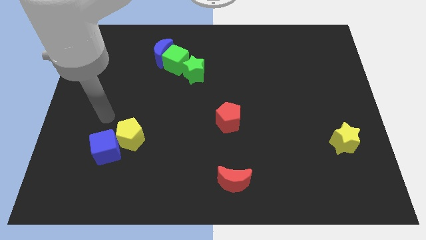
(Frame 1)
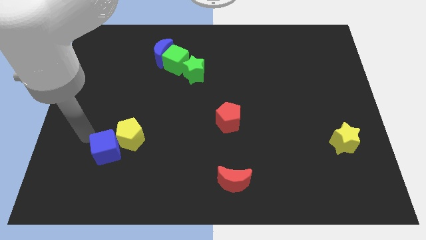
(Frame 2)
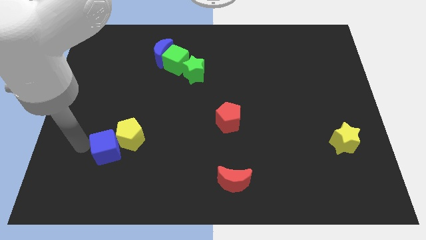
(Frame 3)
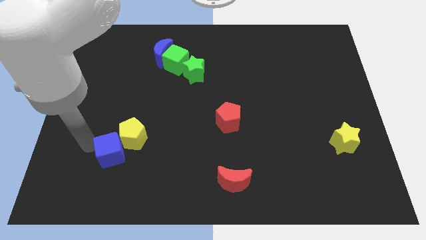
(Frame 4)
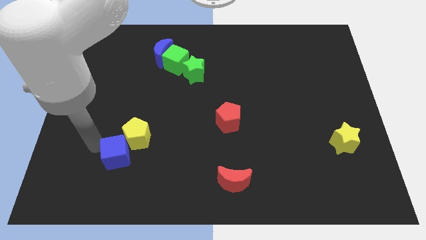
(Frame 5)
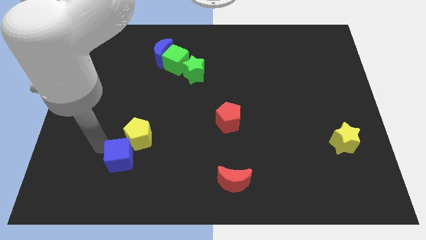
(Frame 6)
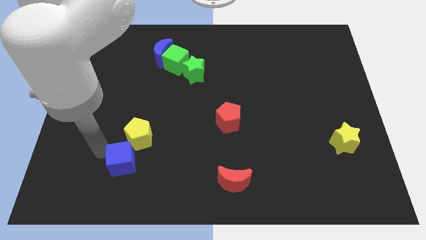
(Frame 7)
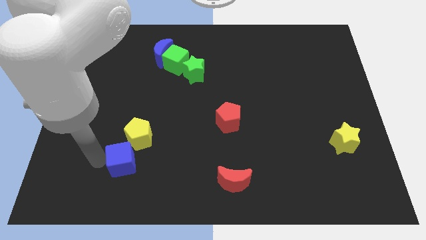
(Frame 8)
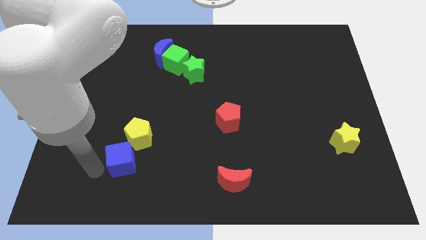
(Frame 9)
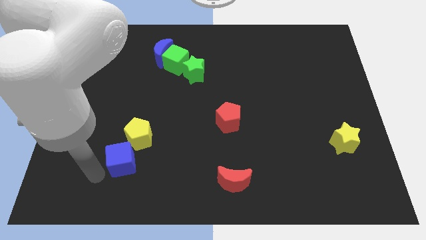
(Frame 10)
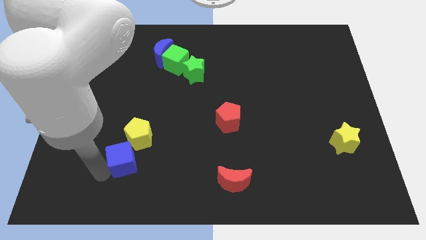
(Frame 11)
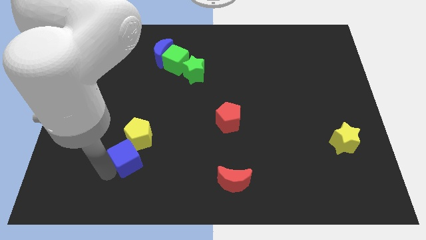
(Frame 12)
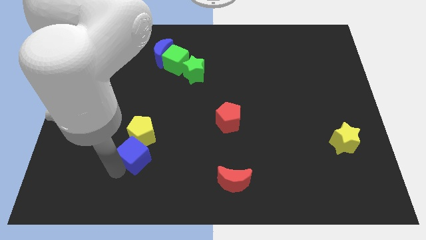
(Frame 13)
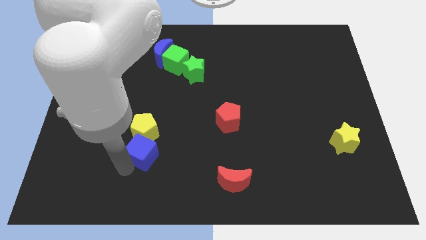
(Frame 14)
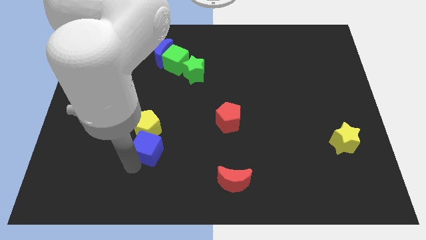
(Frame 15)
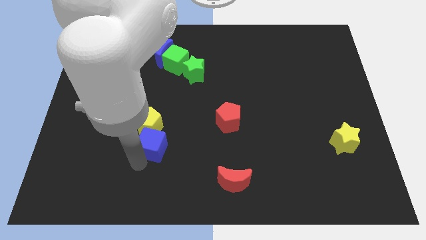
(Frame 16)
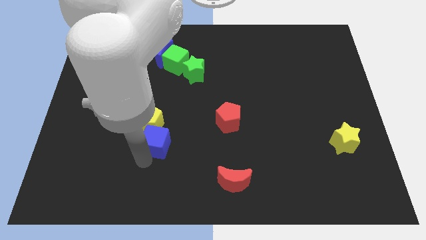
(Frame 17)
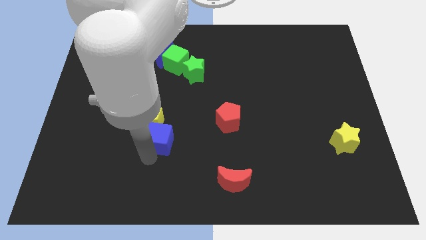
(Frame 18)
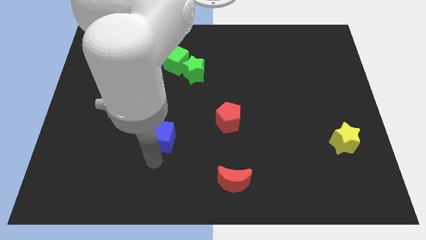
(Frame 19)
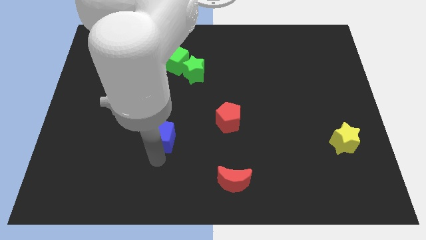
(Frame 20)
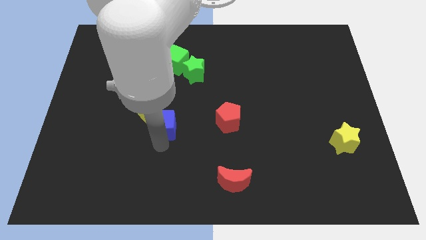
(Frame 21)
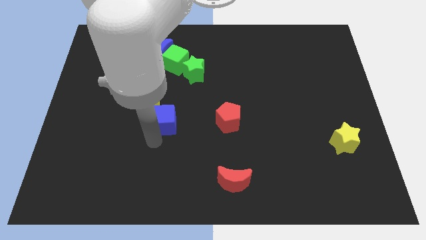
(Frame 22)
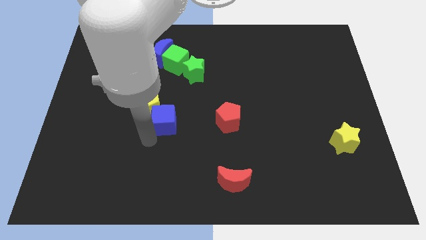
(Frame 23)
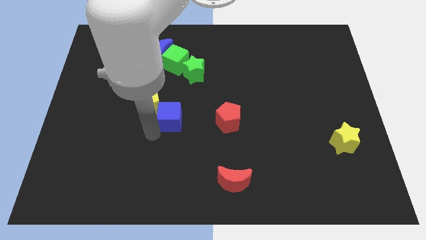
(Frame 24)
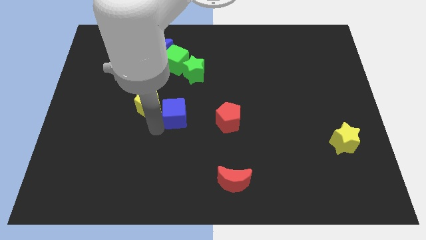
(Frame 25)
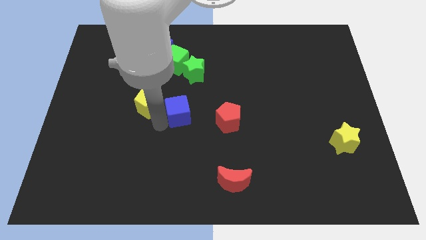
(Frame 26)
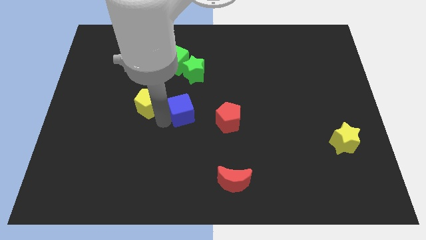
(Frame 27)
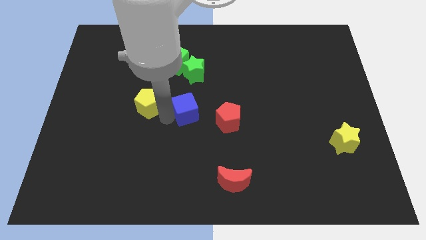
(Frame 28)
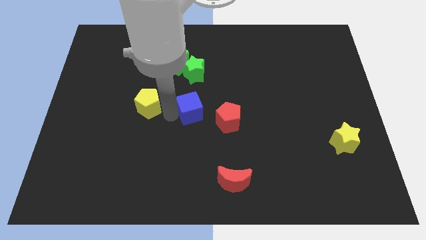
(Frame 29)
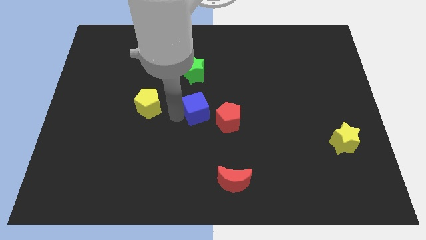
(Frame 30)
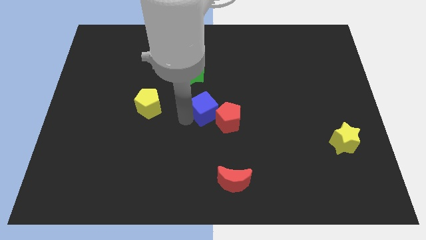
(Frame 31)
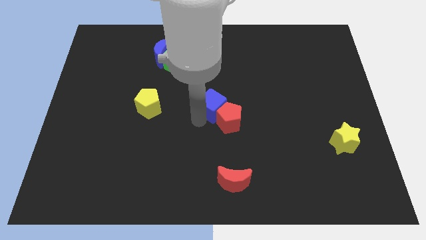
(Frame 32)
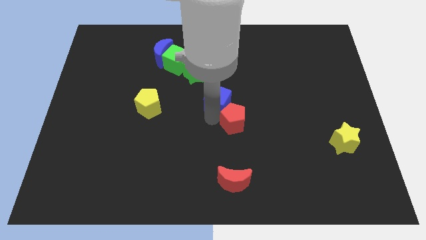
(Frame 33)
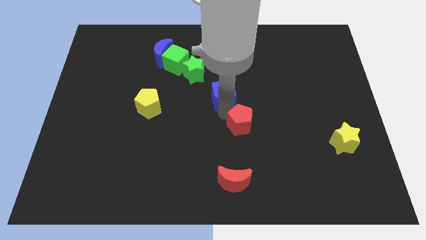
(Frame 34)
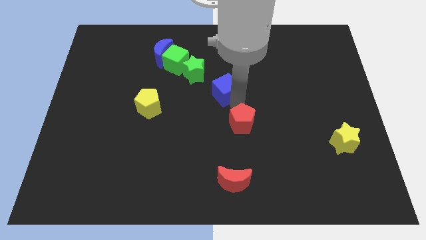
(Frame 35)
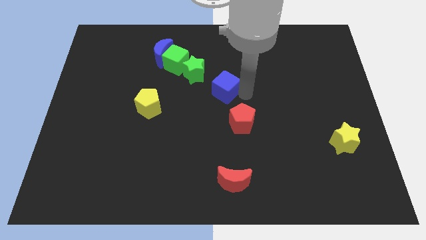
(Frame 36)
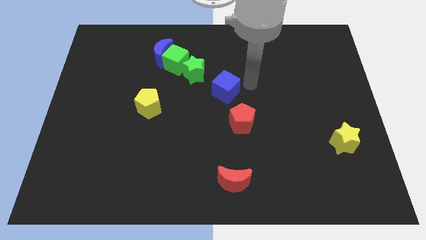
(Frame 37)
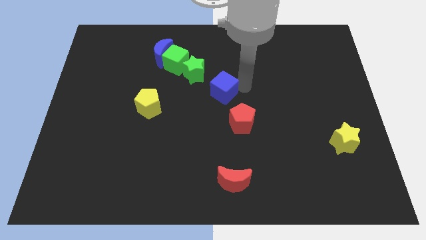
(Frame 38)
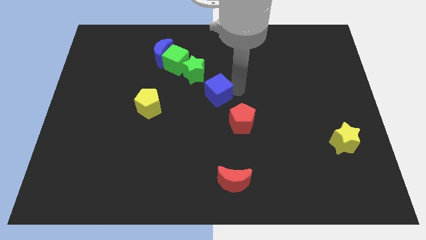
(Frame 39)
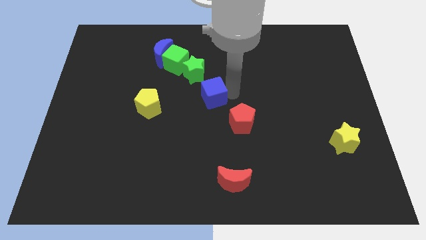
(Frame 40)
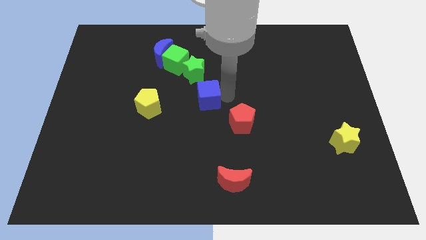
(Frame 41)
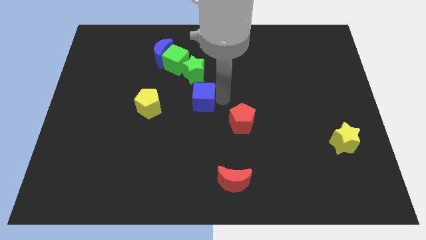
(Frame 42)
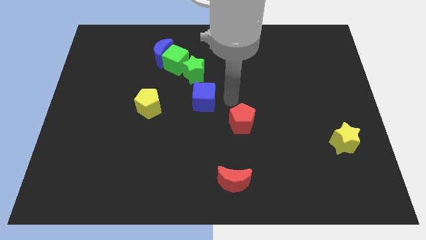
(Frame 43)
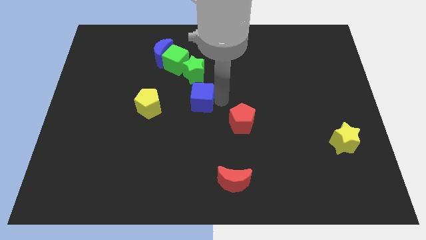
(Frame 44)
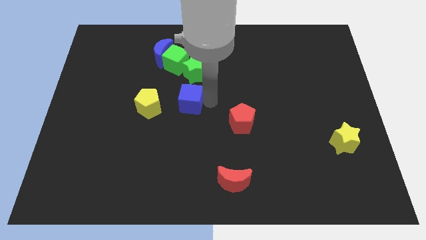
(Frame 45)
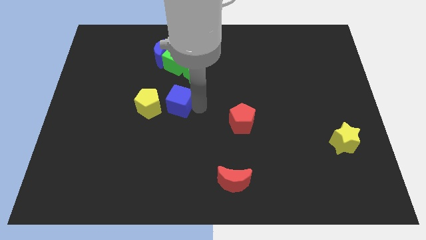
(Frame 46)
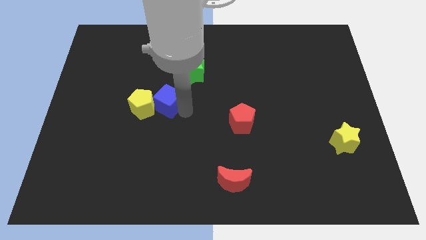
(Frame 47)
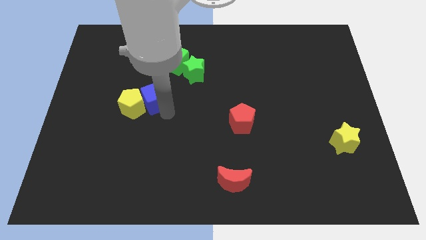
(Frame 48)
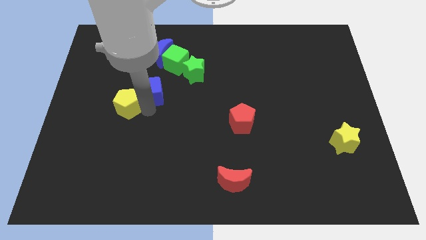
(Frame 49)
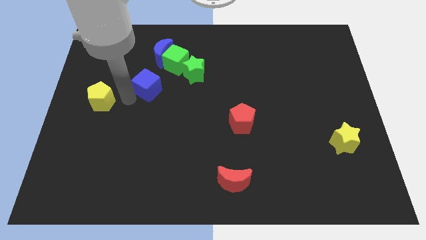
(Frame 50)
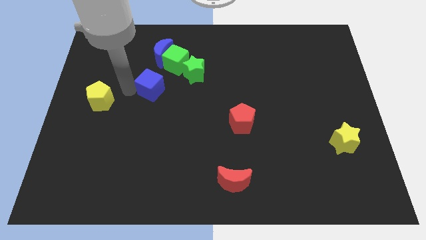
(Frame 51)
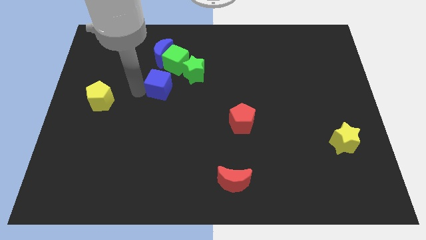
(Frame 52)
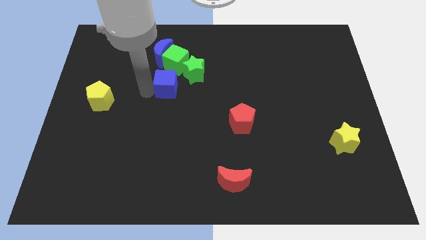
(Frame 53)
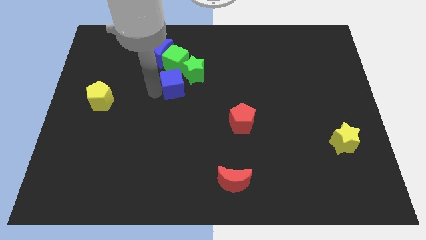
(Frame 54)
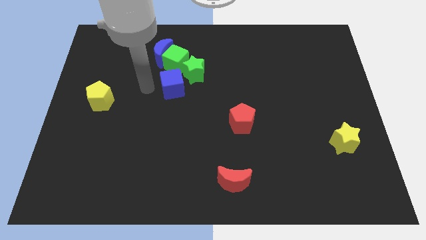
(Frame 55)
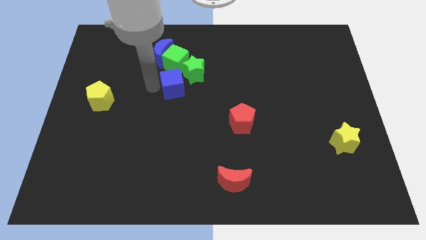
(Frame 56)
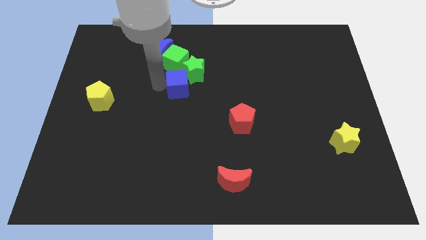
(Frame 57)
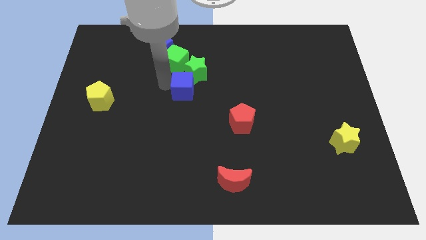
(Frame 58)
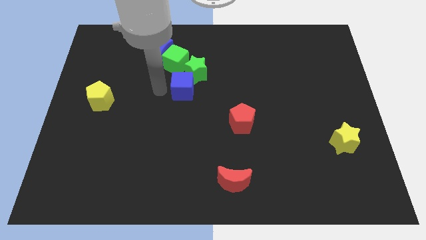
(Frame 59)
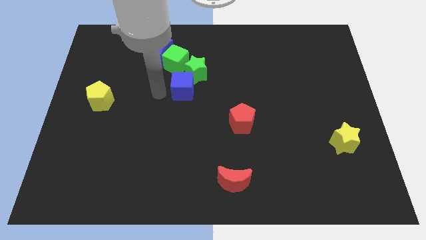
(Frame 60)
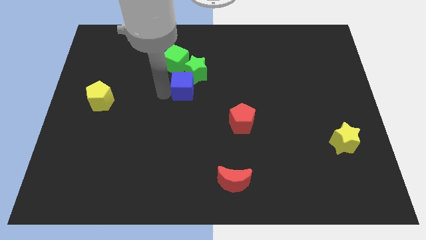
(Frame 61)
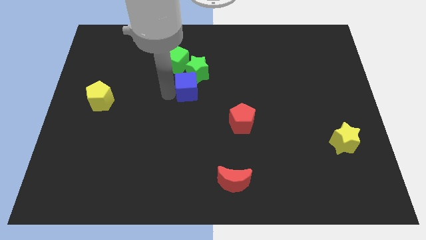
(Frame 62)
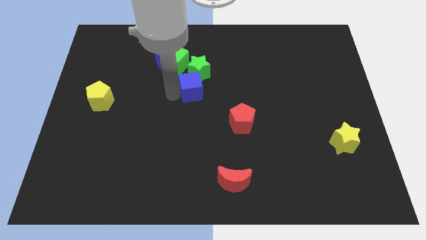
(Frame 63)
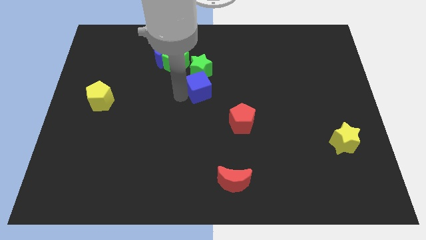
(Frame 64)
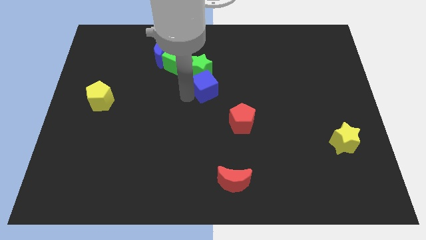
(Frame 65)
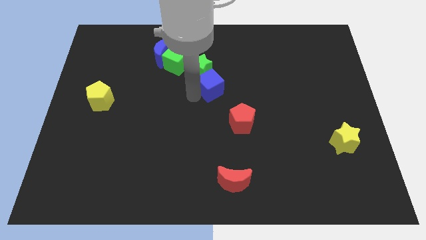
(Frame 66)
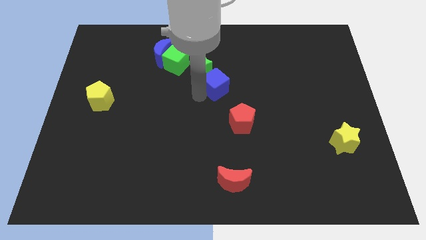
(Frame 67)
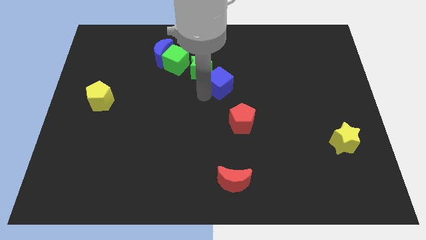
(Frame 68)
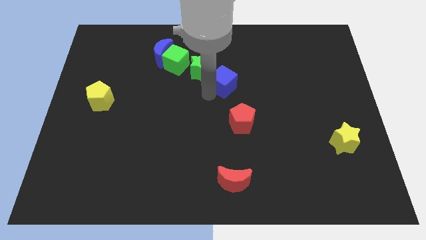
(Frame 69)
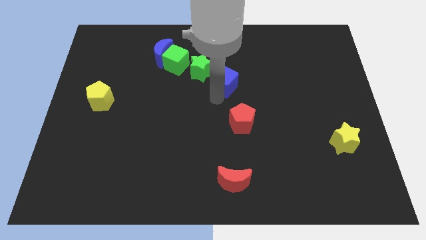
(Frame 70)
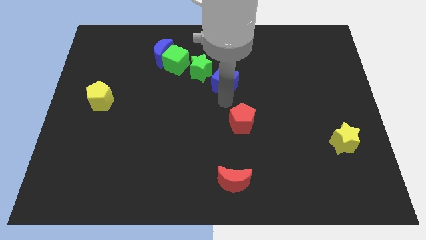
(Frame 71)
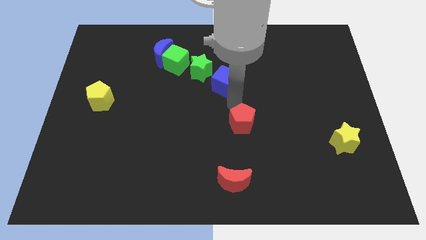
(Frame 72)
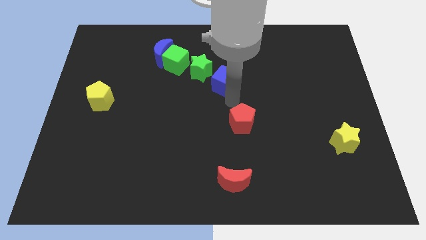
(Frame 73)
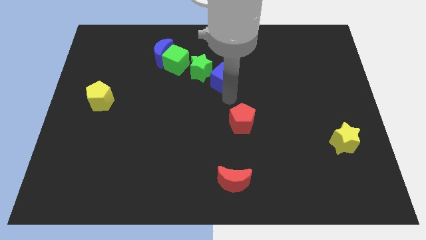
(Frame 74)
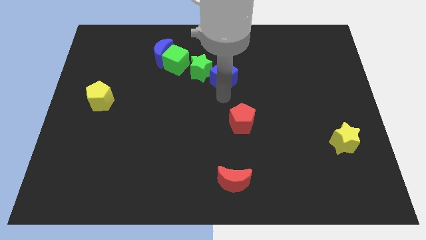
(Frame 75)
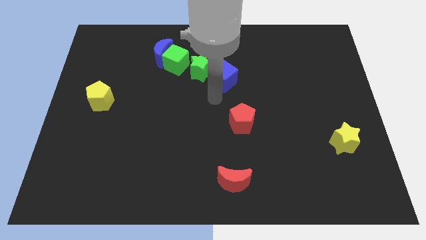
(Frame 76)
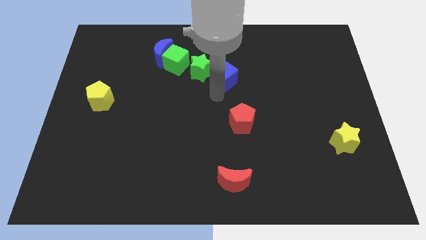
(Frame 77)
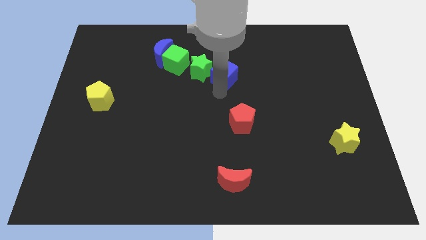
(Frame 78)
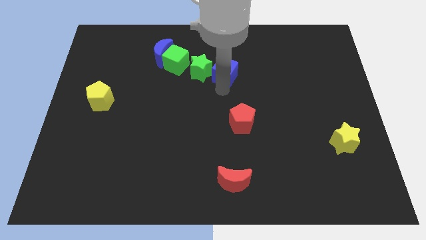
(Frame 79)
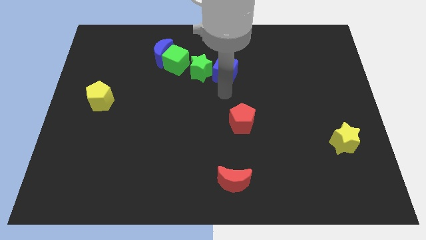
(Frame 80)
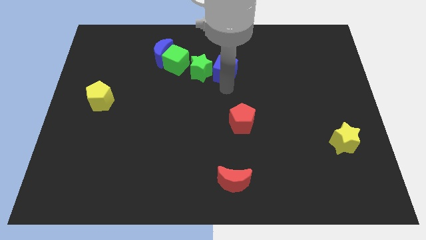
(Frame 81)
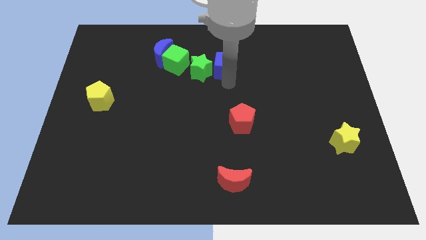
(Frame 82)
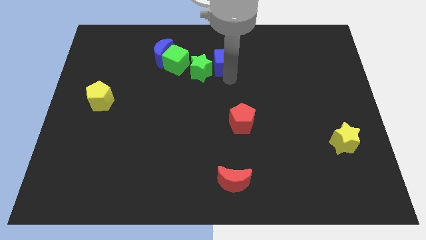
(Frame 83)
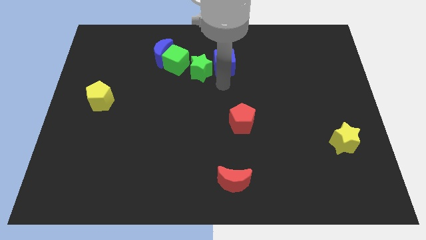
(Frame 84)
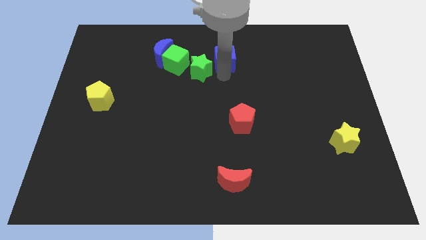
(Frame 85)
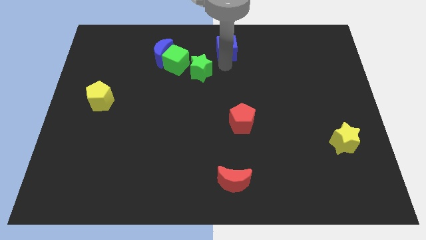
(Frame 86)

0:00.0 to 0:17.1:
move the blue cube to the top
